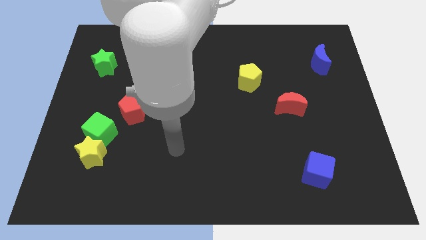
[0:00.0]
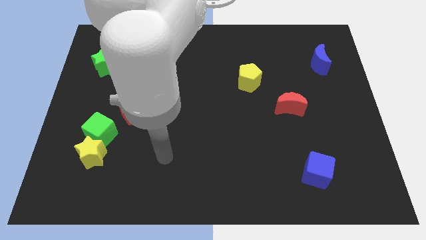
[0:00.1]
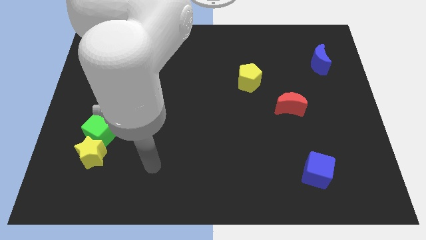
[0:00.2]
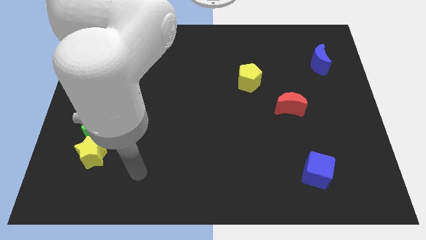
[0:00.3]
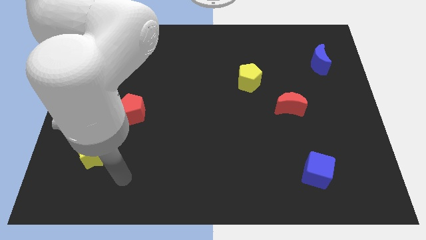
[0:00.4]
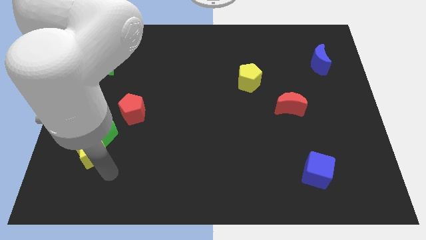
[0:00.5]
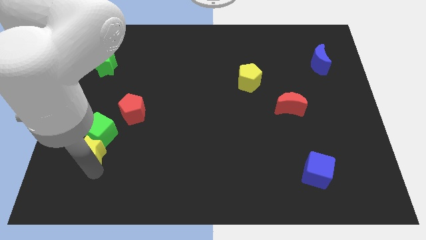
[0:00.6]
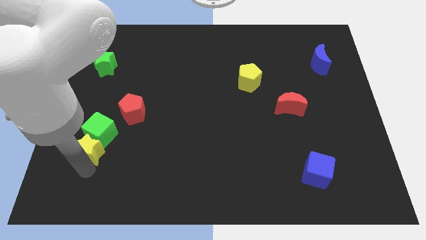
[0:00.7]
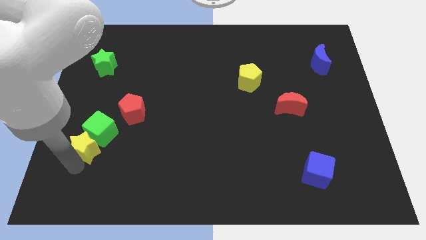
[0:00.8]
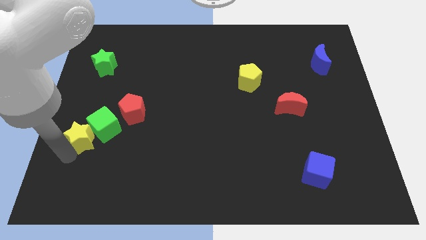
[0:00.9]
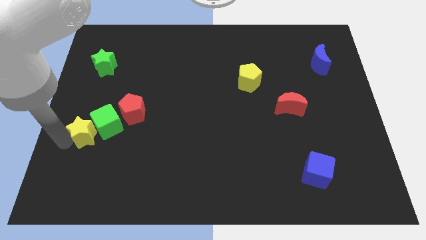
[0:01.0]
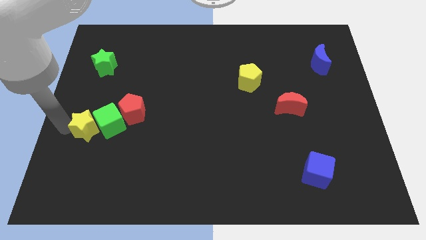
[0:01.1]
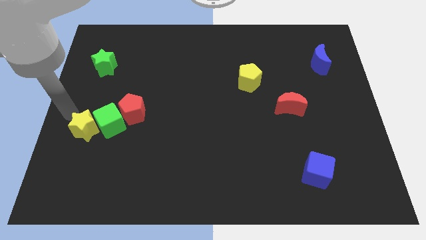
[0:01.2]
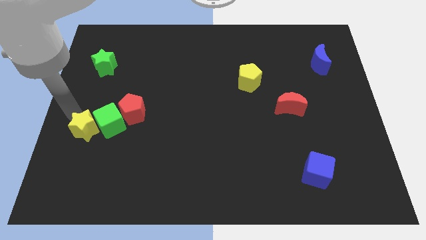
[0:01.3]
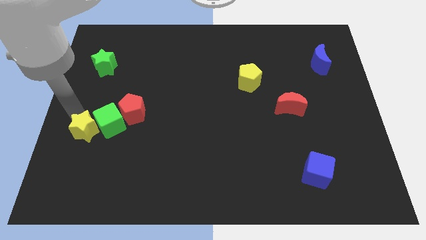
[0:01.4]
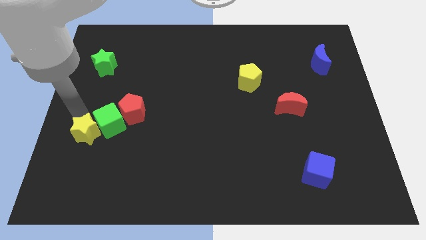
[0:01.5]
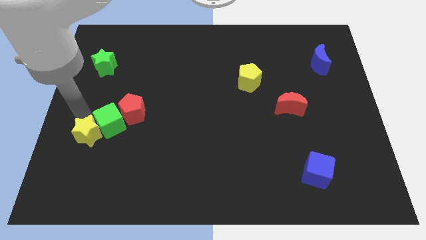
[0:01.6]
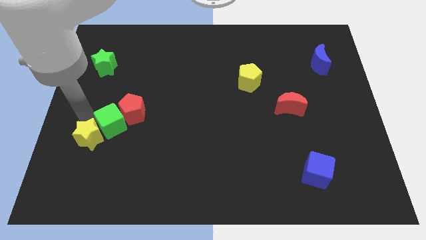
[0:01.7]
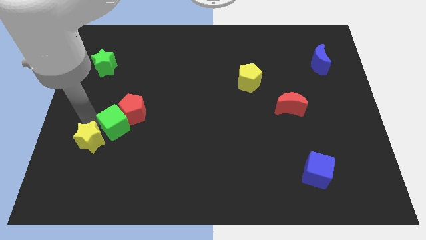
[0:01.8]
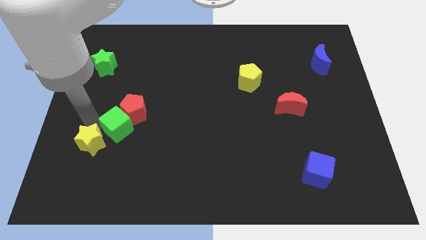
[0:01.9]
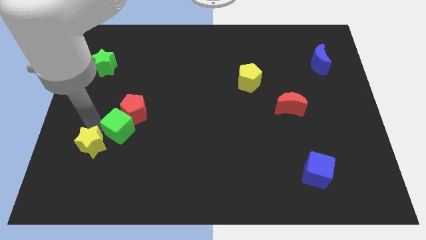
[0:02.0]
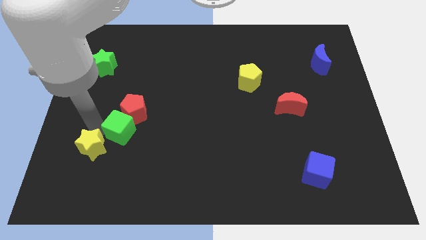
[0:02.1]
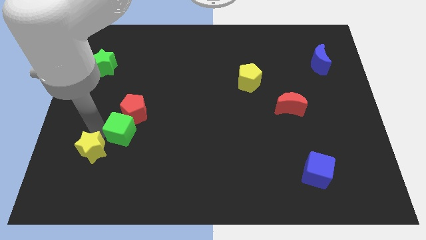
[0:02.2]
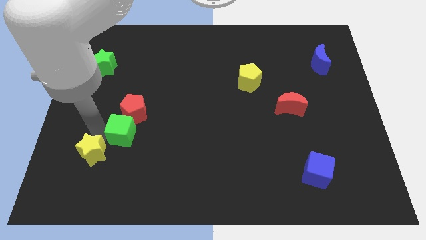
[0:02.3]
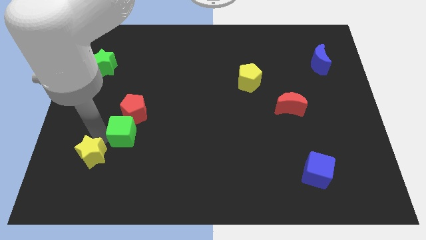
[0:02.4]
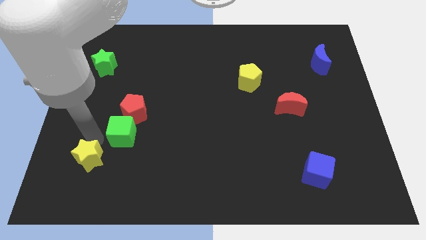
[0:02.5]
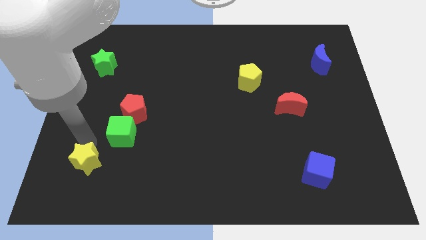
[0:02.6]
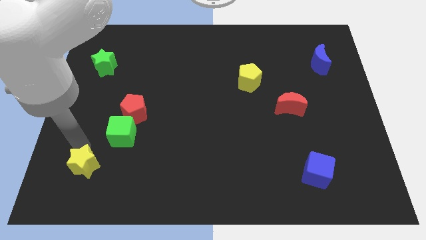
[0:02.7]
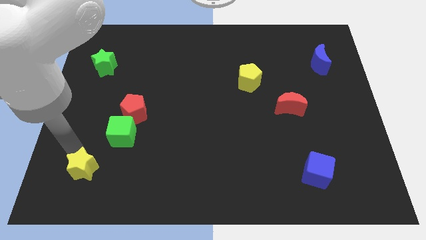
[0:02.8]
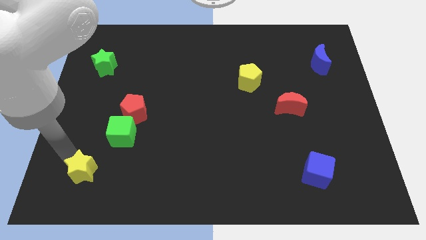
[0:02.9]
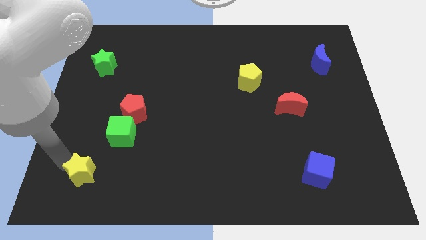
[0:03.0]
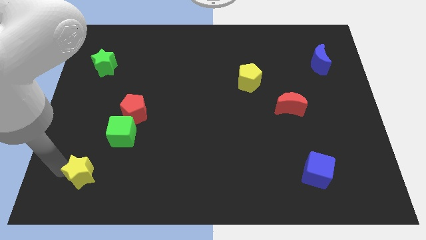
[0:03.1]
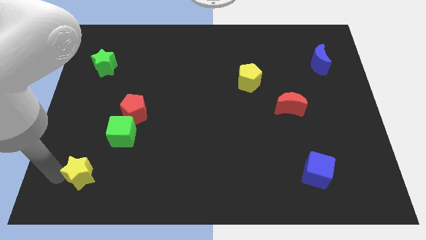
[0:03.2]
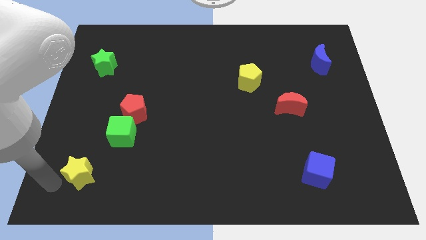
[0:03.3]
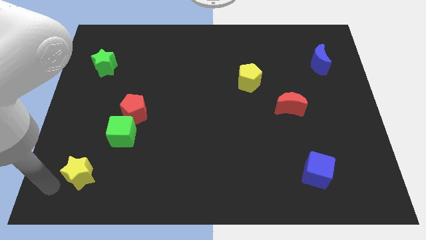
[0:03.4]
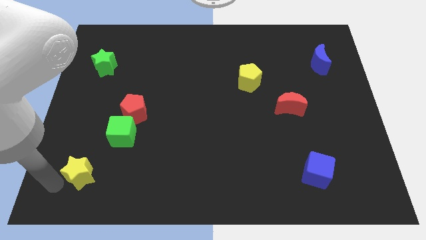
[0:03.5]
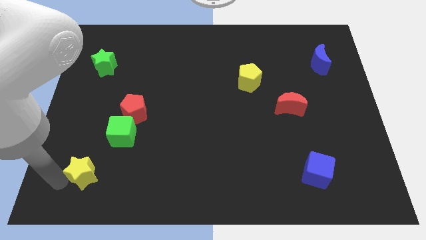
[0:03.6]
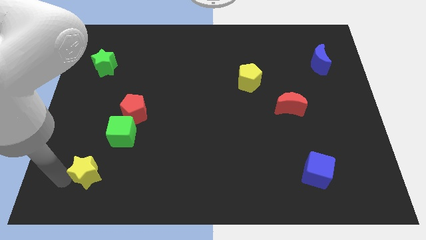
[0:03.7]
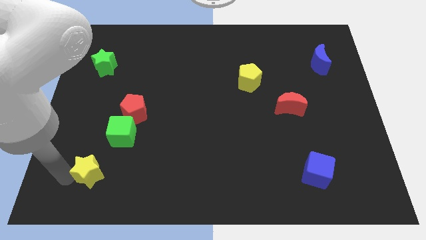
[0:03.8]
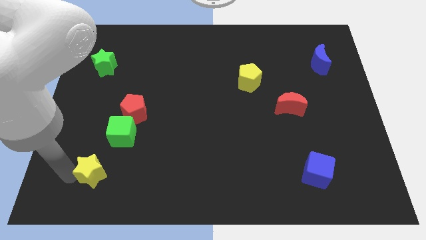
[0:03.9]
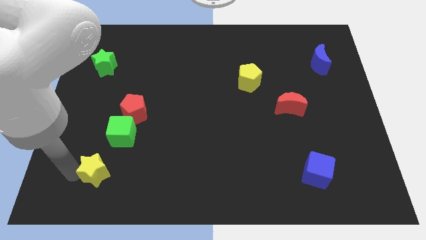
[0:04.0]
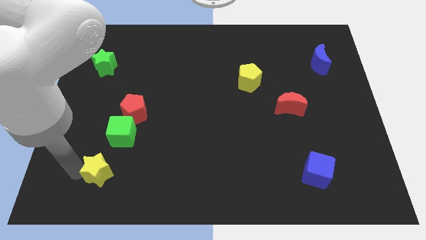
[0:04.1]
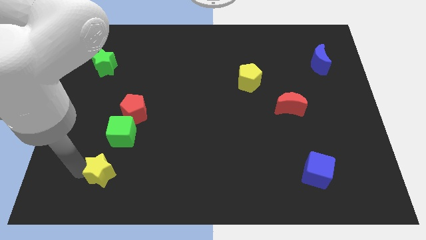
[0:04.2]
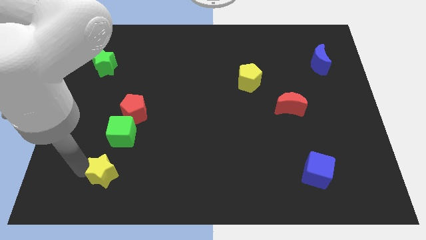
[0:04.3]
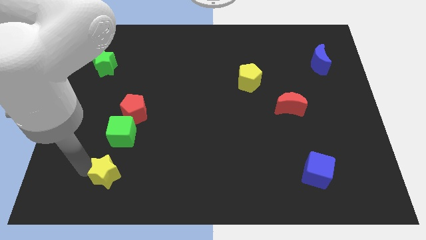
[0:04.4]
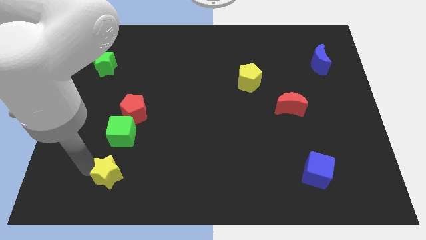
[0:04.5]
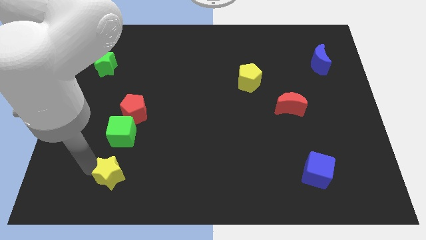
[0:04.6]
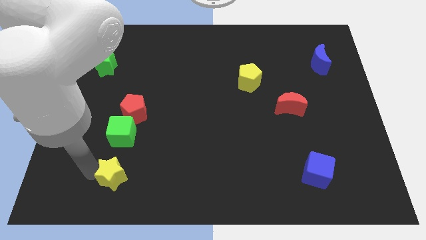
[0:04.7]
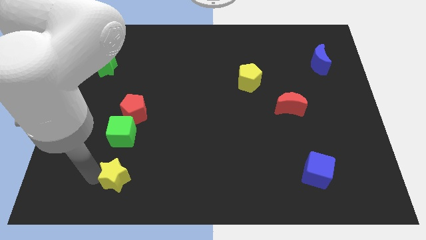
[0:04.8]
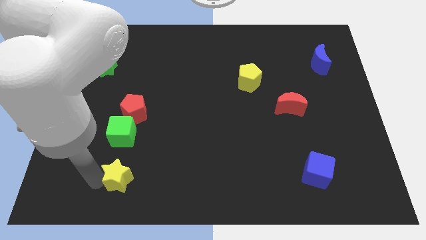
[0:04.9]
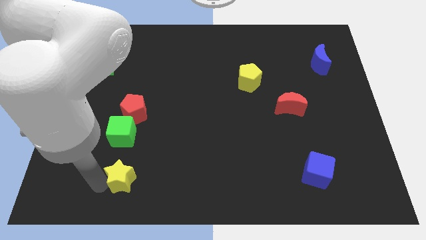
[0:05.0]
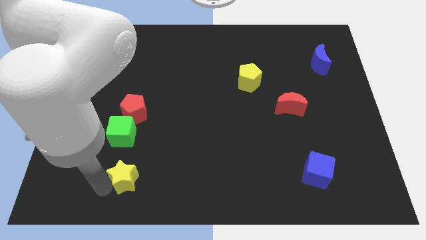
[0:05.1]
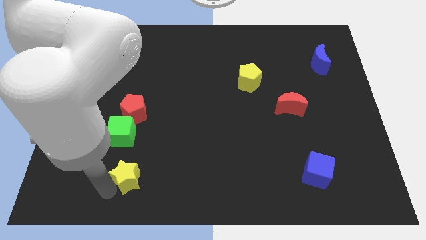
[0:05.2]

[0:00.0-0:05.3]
move the yellow star to the right a little

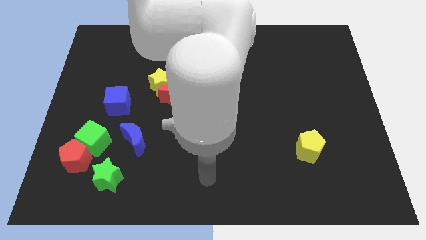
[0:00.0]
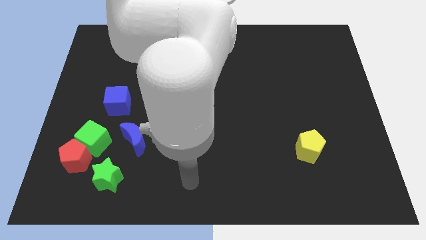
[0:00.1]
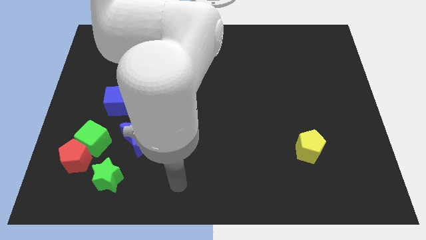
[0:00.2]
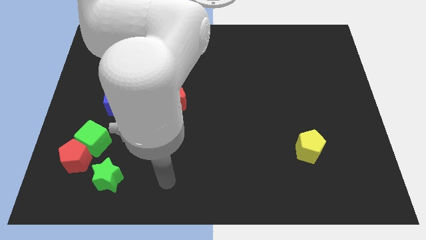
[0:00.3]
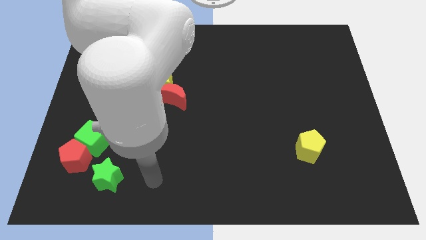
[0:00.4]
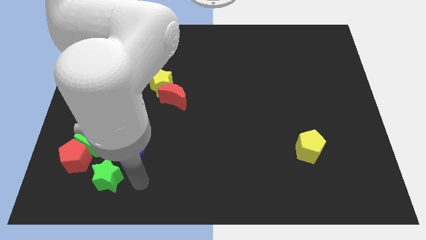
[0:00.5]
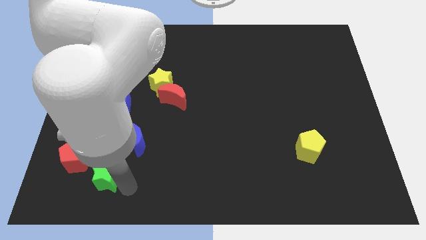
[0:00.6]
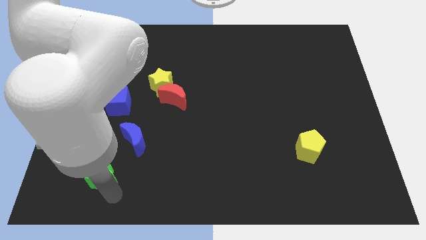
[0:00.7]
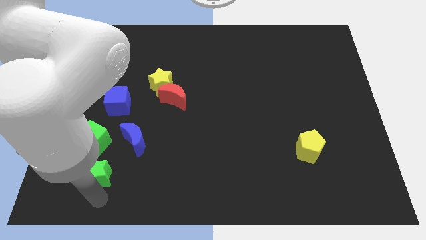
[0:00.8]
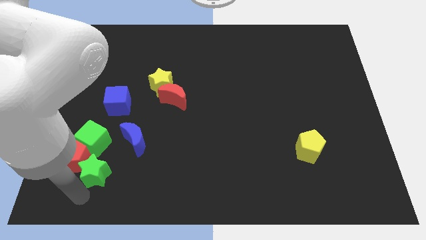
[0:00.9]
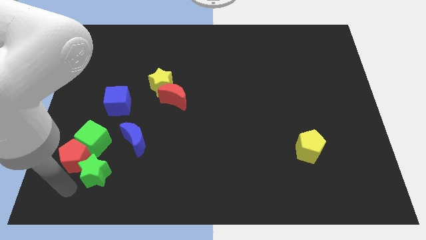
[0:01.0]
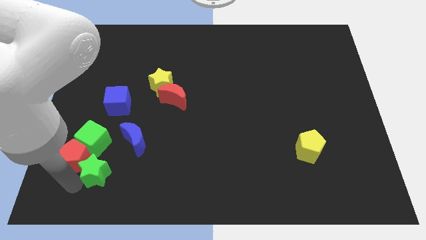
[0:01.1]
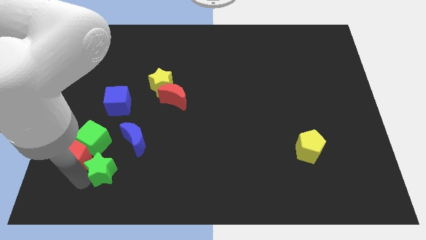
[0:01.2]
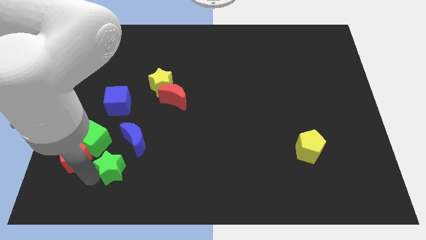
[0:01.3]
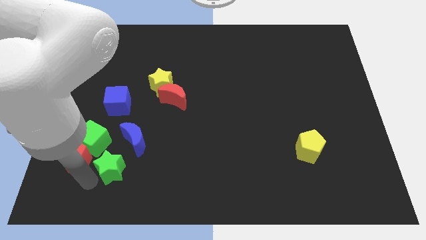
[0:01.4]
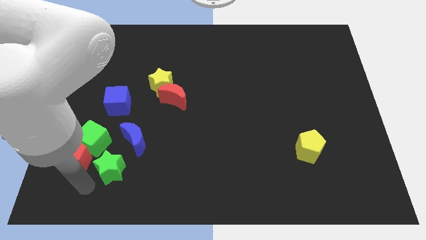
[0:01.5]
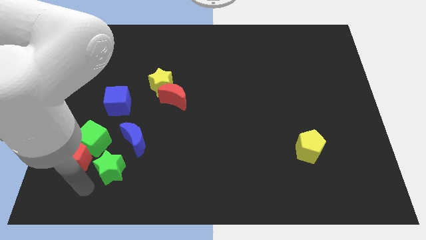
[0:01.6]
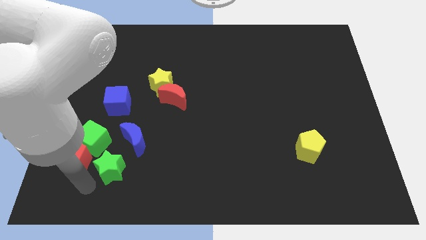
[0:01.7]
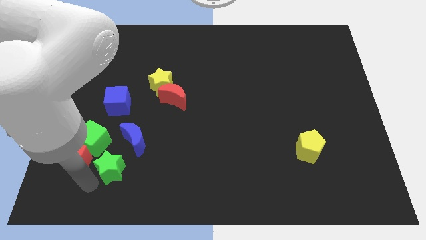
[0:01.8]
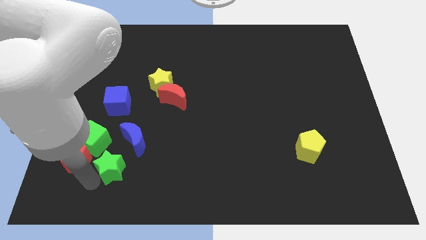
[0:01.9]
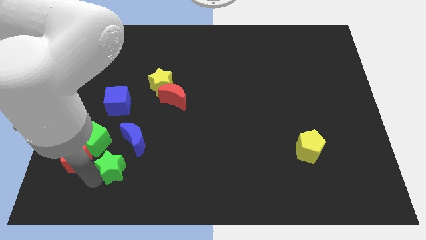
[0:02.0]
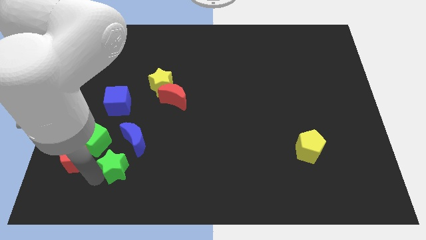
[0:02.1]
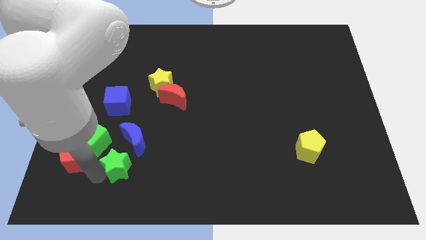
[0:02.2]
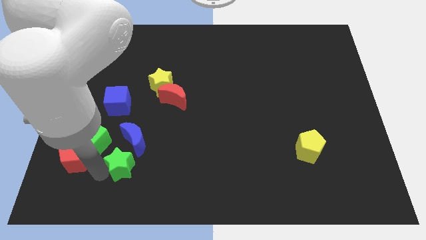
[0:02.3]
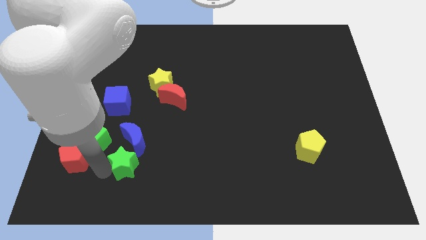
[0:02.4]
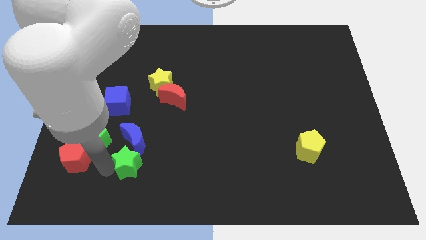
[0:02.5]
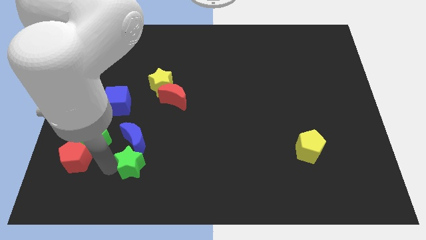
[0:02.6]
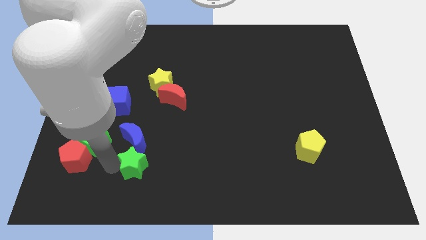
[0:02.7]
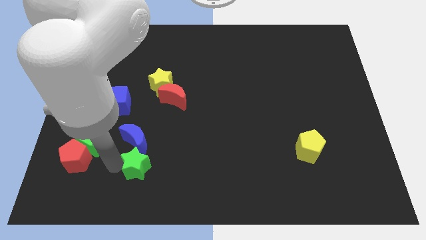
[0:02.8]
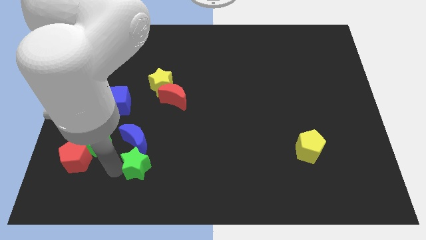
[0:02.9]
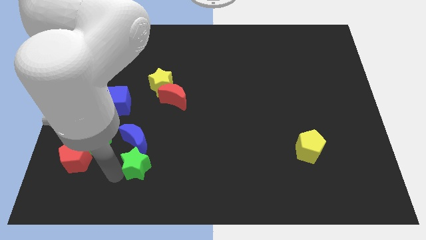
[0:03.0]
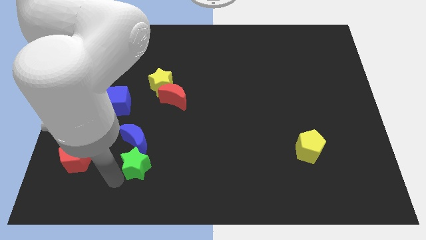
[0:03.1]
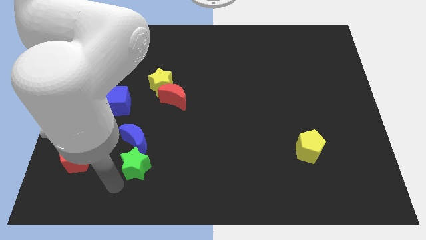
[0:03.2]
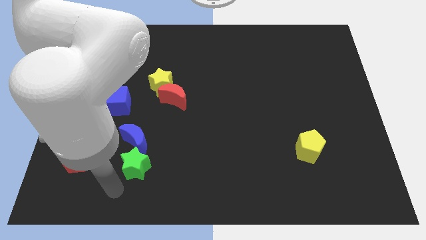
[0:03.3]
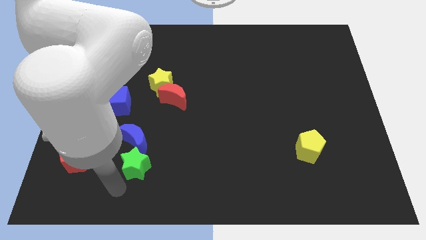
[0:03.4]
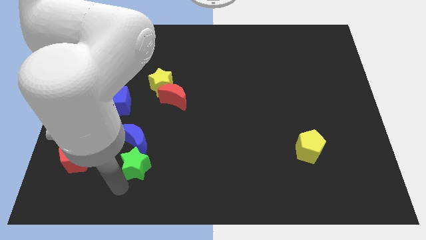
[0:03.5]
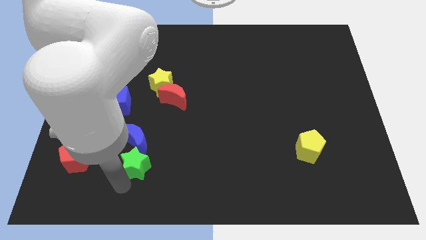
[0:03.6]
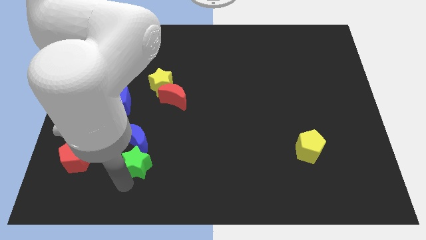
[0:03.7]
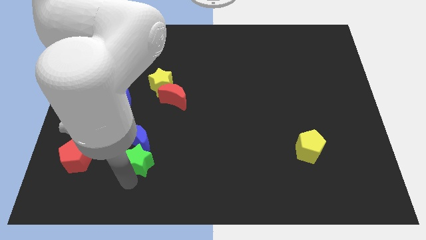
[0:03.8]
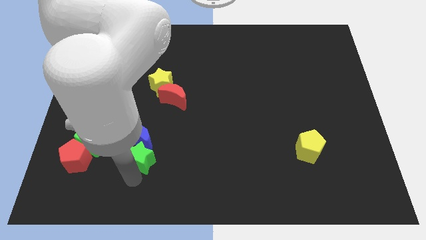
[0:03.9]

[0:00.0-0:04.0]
slide the green star somewhat up and right
